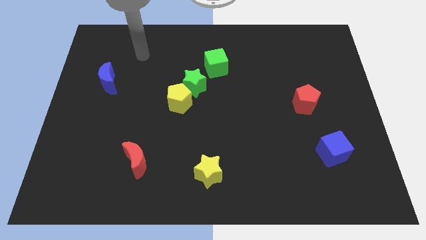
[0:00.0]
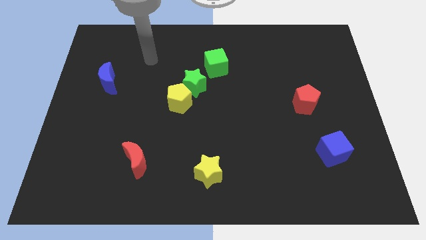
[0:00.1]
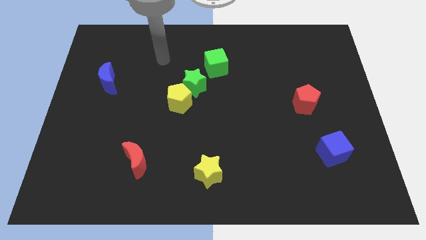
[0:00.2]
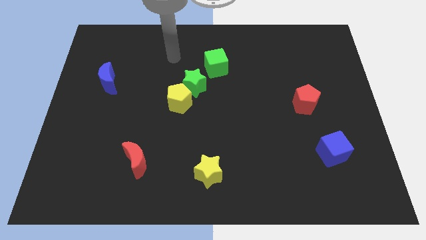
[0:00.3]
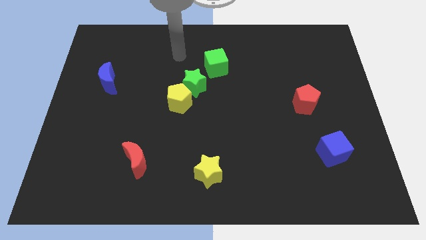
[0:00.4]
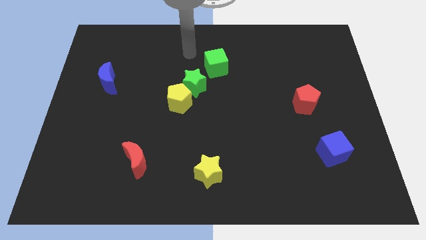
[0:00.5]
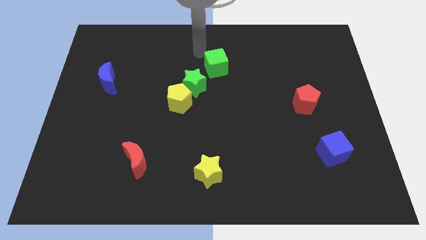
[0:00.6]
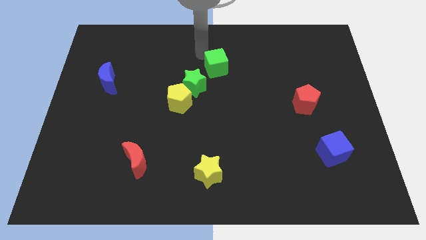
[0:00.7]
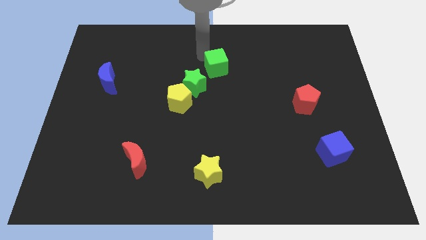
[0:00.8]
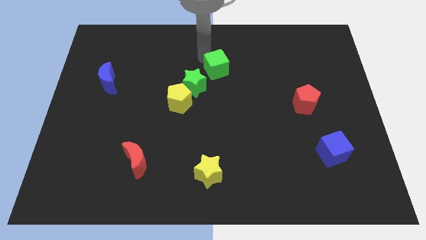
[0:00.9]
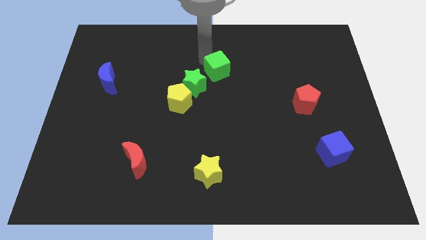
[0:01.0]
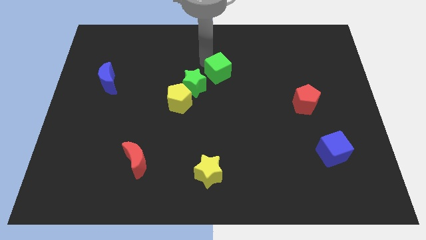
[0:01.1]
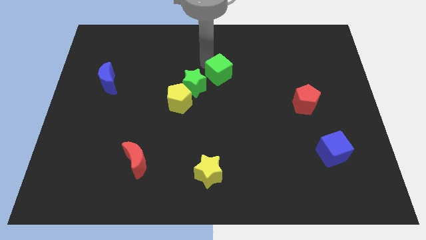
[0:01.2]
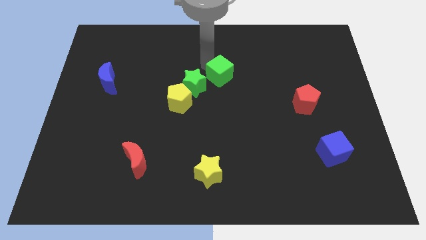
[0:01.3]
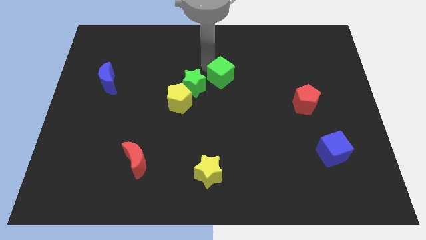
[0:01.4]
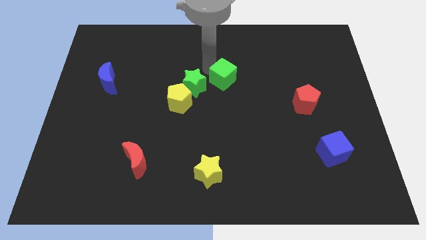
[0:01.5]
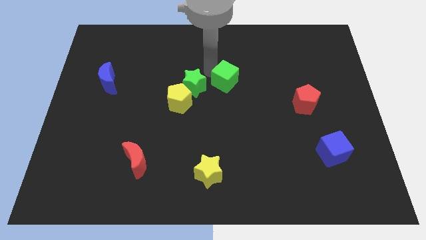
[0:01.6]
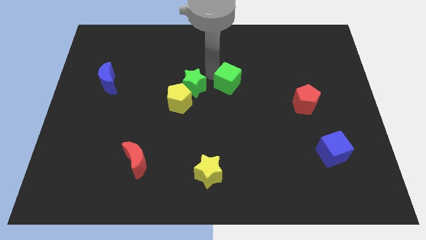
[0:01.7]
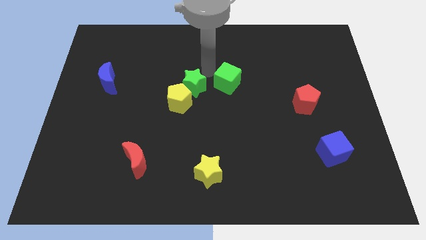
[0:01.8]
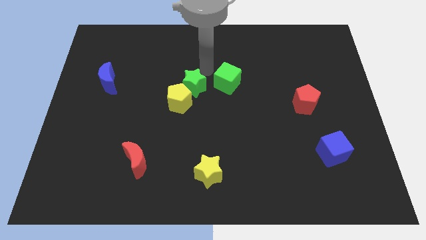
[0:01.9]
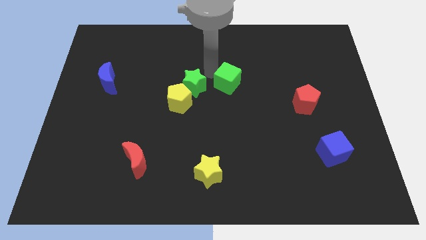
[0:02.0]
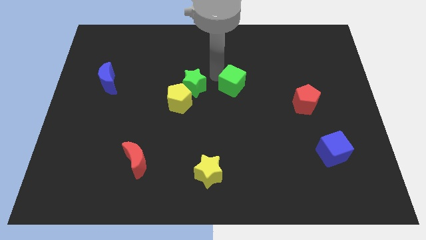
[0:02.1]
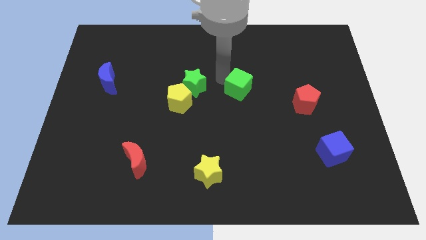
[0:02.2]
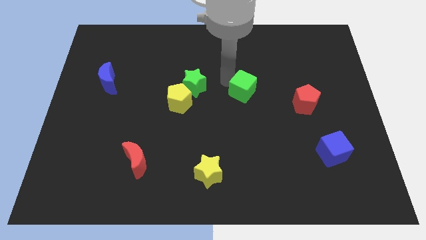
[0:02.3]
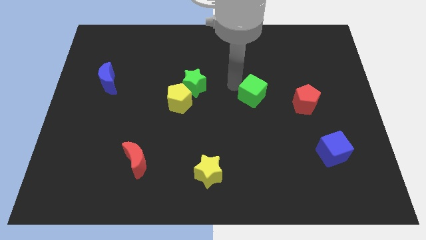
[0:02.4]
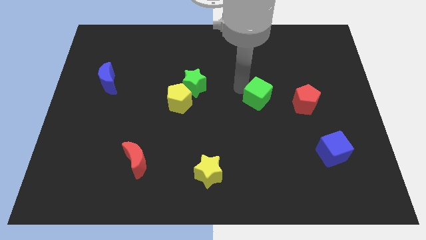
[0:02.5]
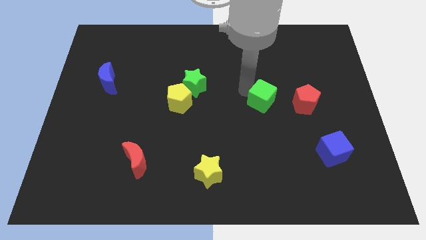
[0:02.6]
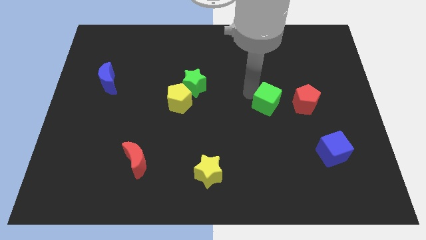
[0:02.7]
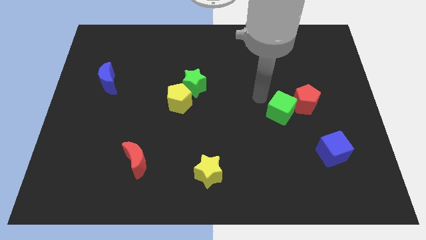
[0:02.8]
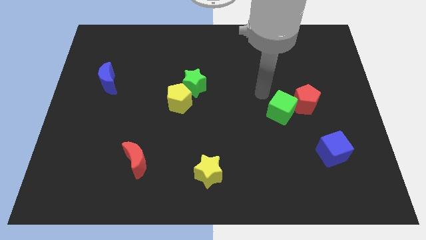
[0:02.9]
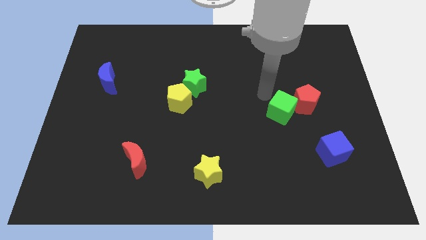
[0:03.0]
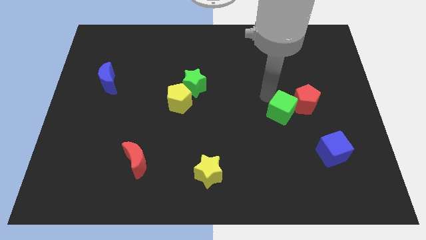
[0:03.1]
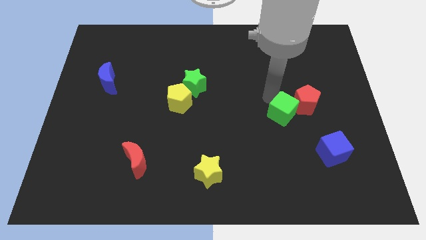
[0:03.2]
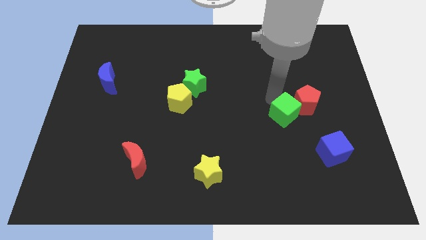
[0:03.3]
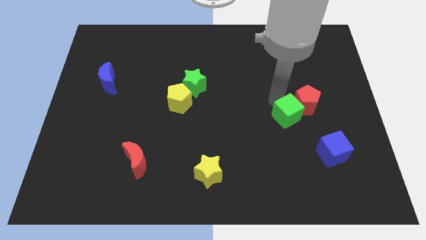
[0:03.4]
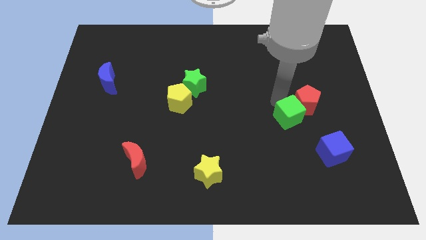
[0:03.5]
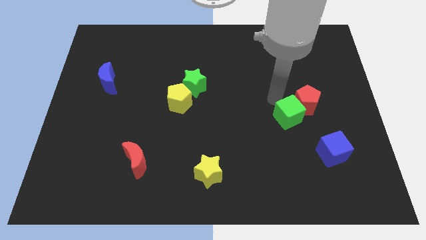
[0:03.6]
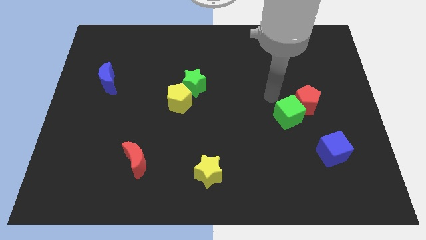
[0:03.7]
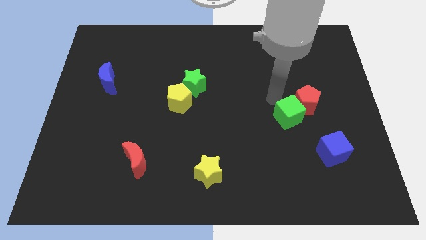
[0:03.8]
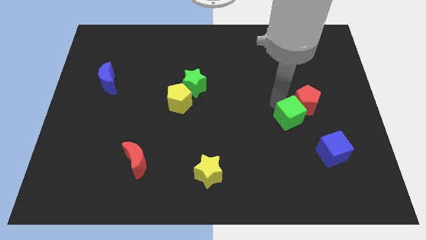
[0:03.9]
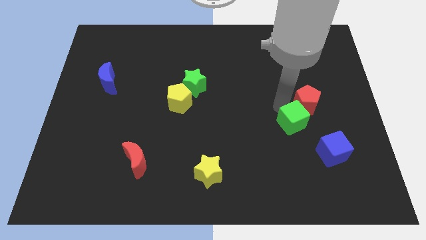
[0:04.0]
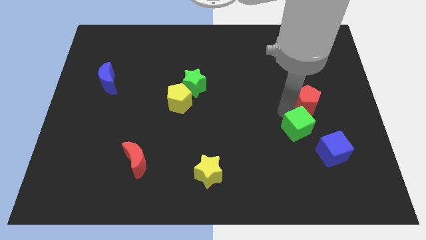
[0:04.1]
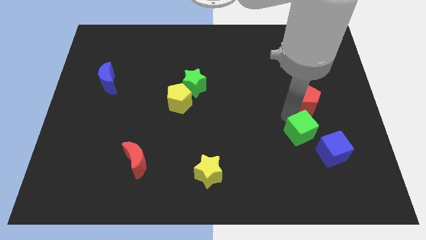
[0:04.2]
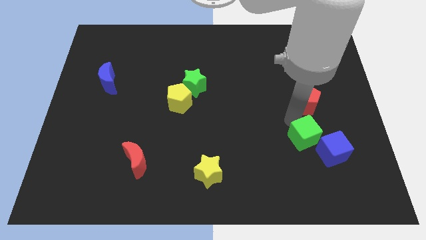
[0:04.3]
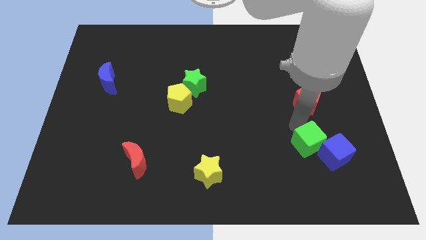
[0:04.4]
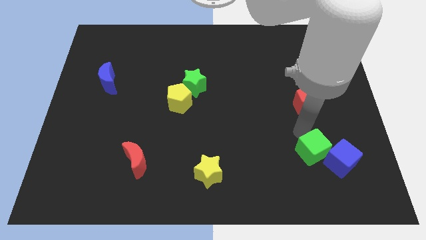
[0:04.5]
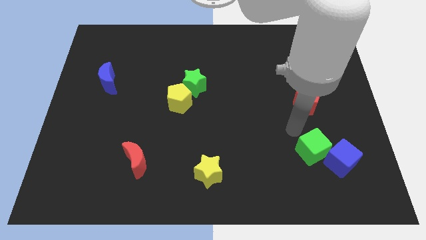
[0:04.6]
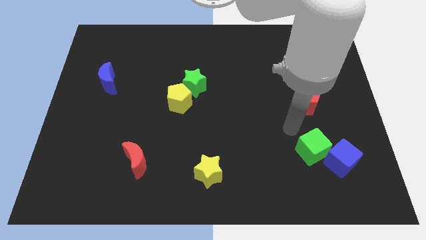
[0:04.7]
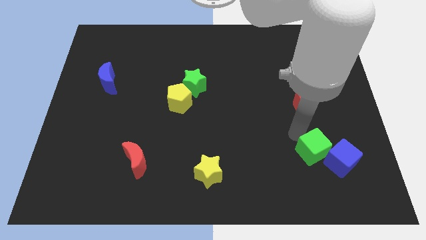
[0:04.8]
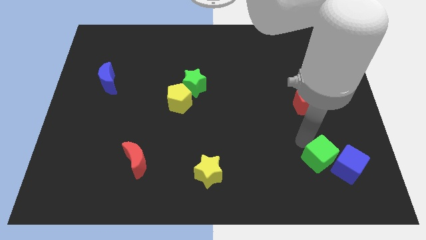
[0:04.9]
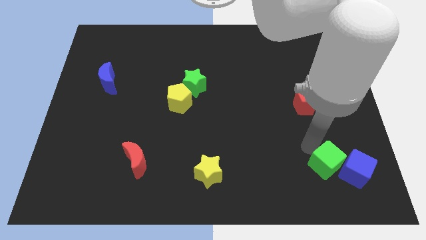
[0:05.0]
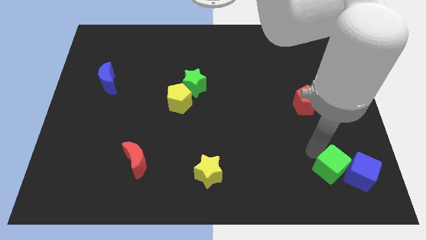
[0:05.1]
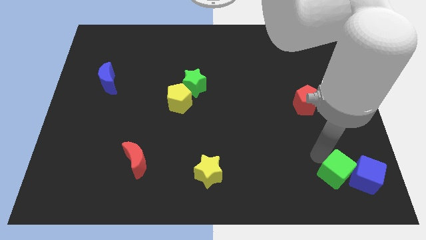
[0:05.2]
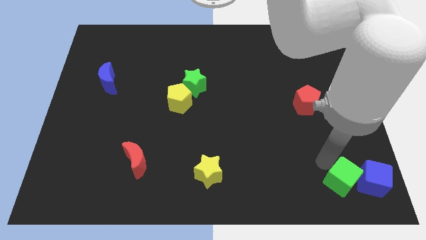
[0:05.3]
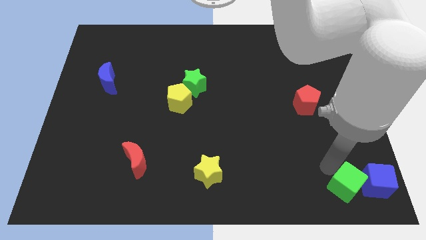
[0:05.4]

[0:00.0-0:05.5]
push the green cube to the bottom right of the board
